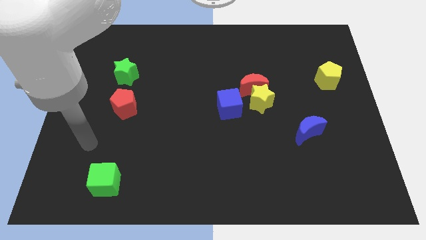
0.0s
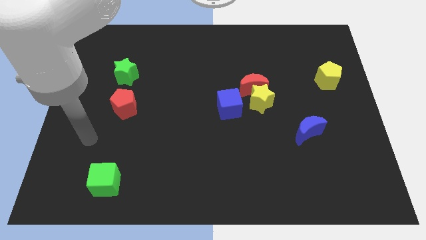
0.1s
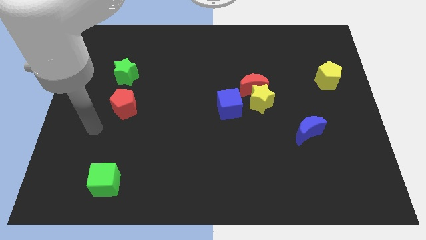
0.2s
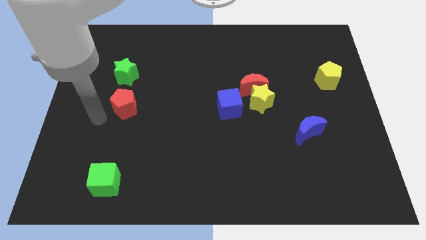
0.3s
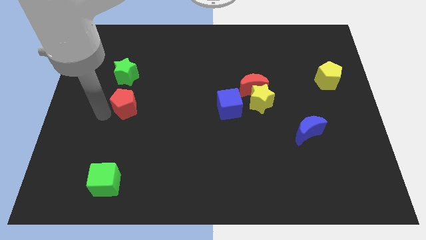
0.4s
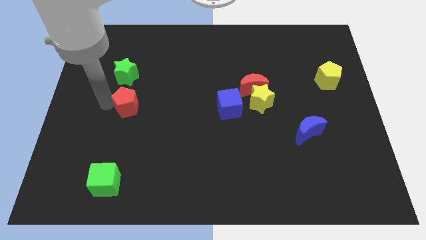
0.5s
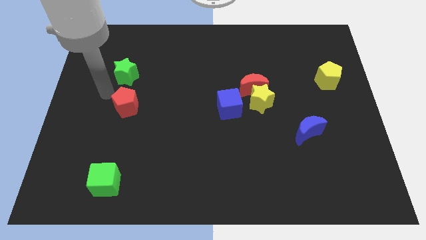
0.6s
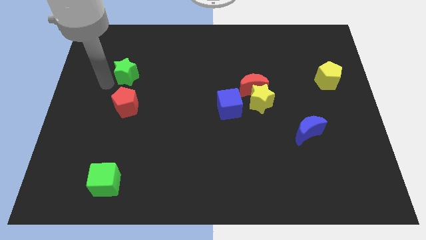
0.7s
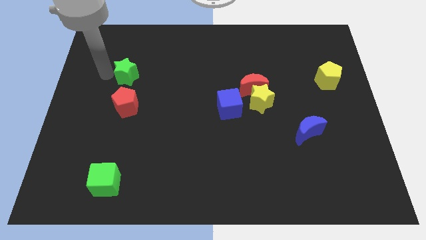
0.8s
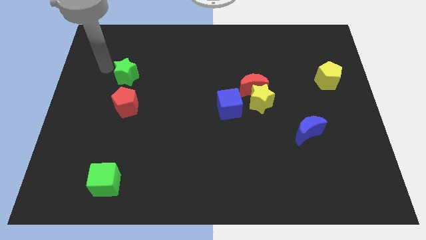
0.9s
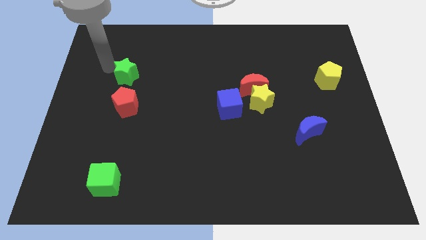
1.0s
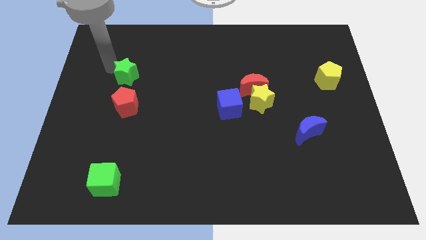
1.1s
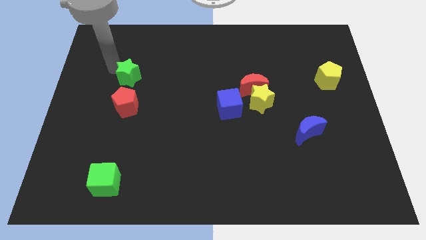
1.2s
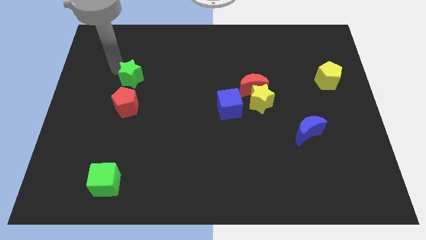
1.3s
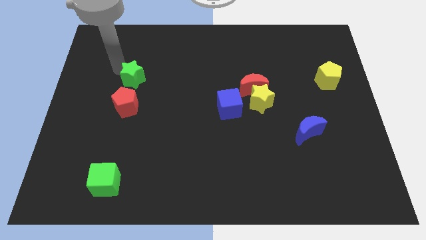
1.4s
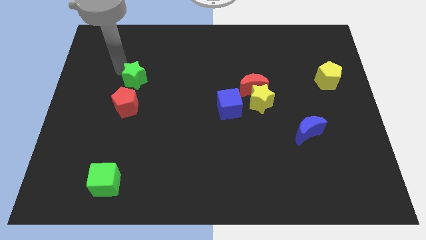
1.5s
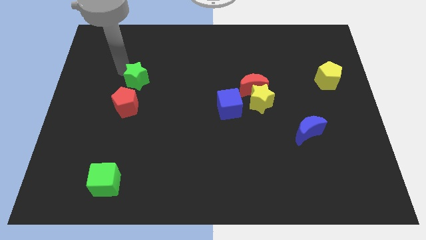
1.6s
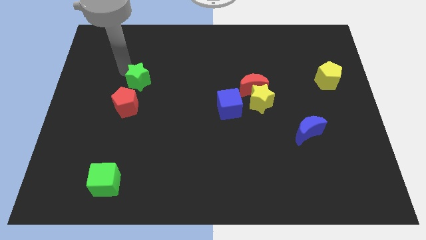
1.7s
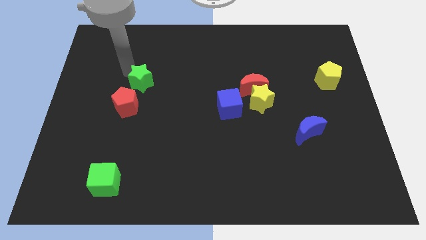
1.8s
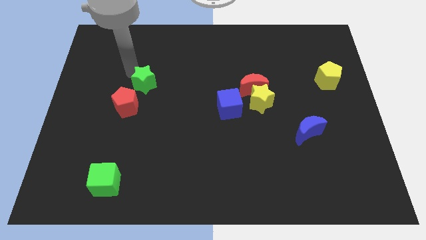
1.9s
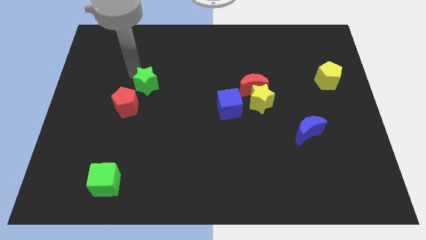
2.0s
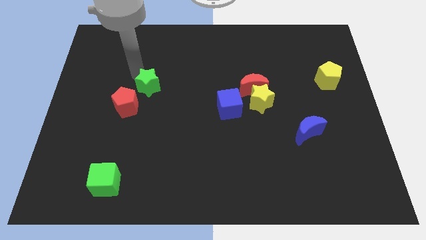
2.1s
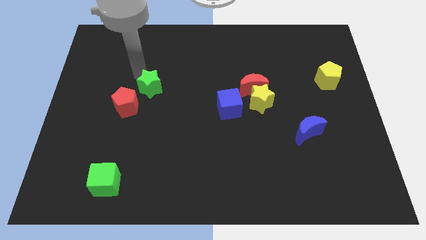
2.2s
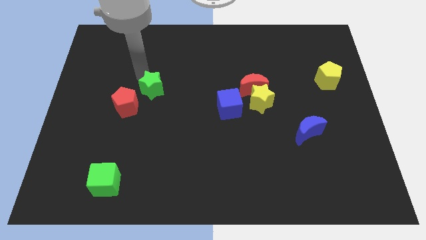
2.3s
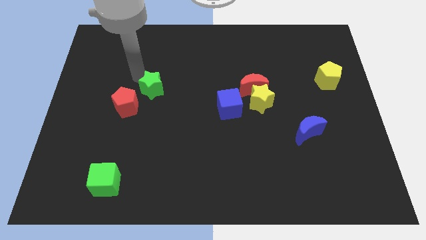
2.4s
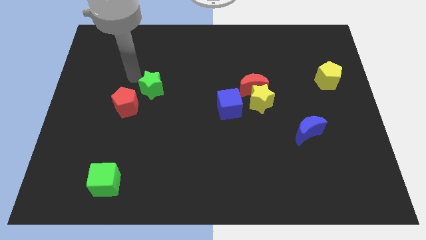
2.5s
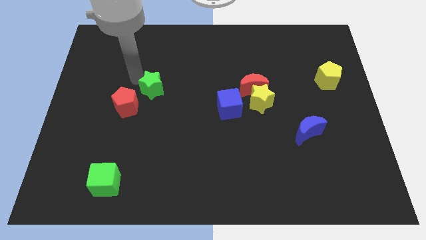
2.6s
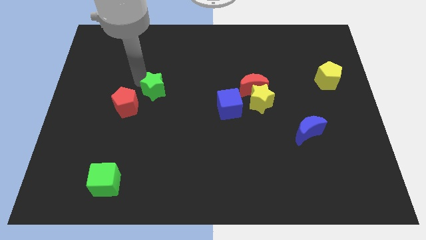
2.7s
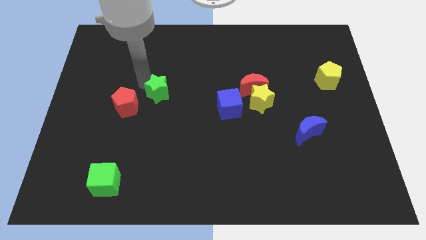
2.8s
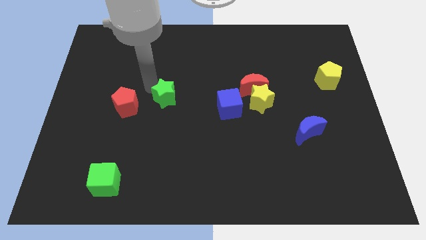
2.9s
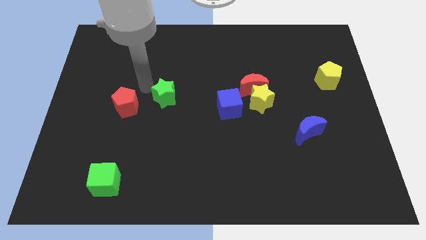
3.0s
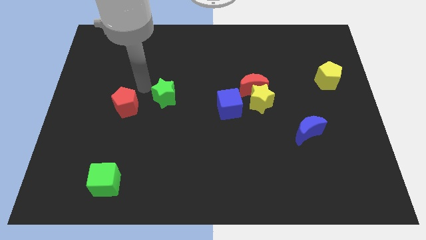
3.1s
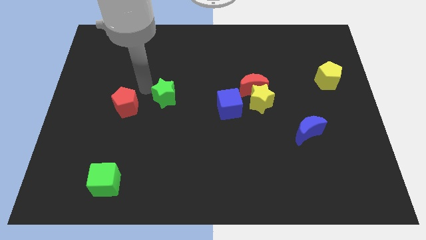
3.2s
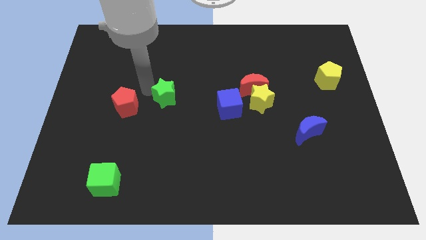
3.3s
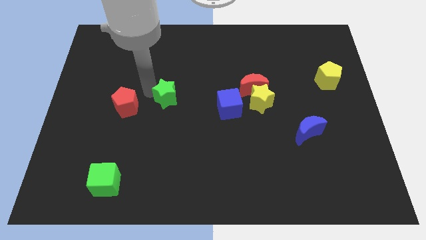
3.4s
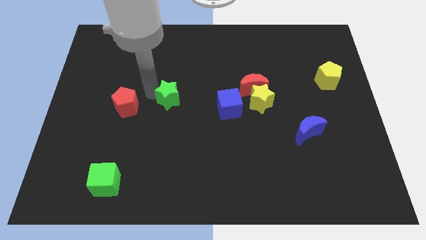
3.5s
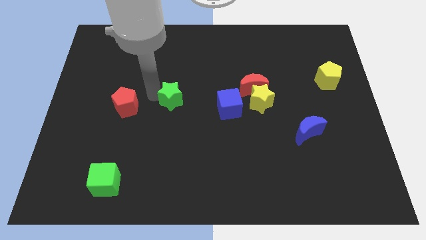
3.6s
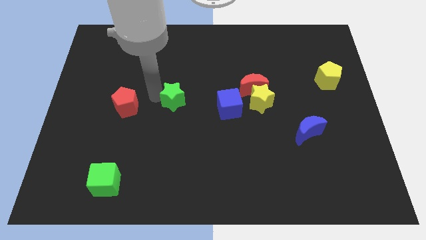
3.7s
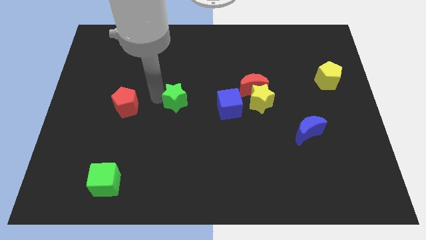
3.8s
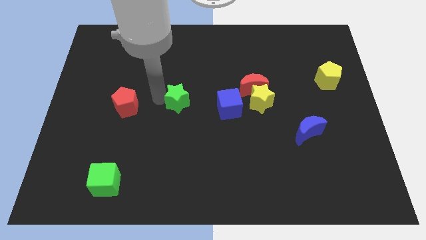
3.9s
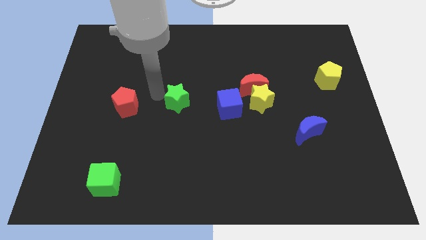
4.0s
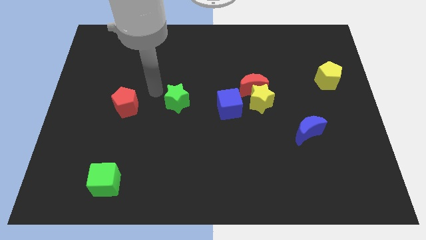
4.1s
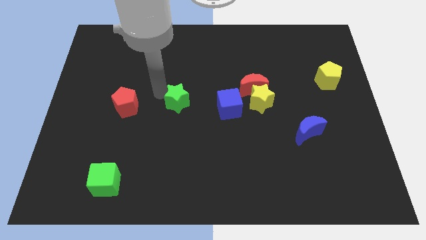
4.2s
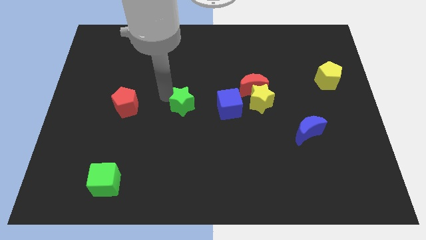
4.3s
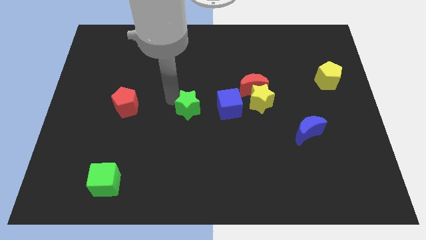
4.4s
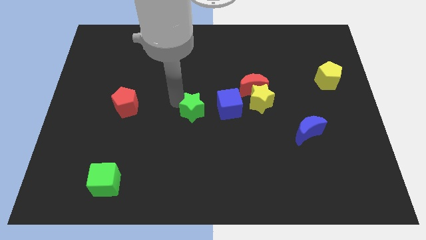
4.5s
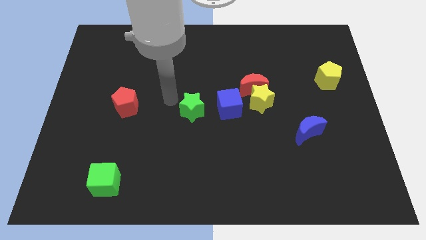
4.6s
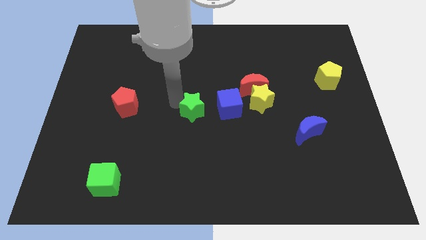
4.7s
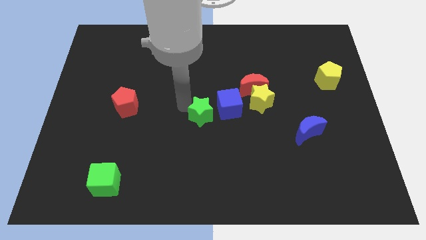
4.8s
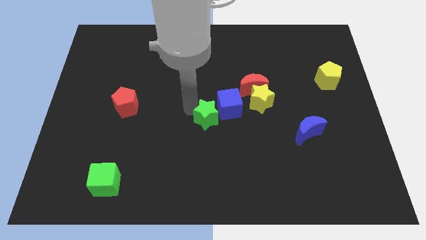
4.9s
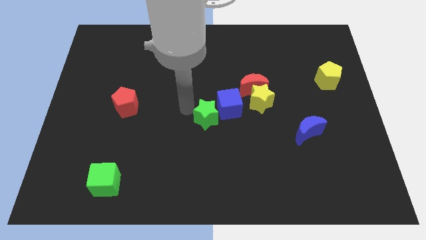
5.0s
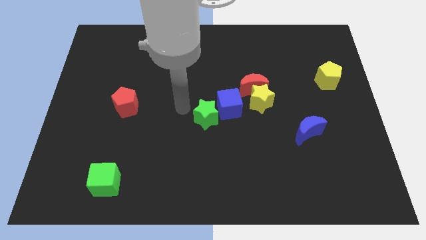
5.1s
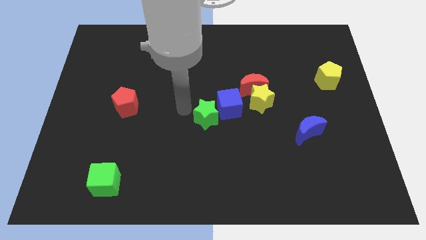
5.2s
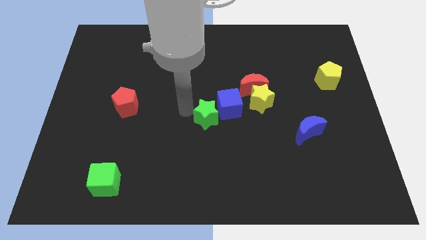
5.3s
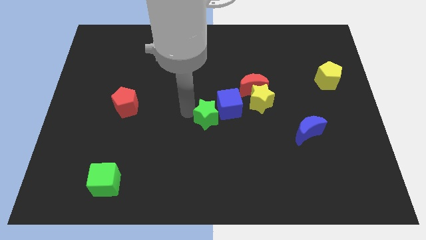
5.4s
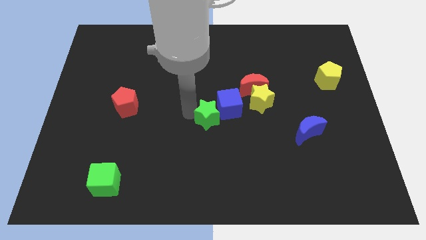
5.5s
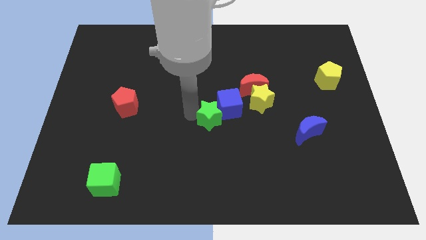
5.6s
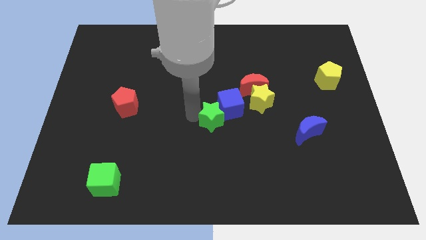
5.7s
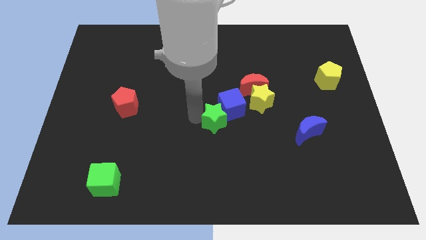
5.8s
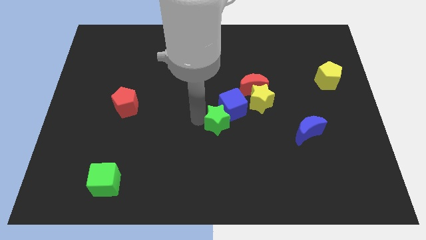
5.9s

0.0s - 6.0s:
put the green star to the bottom left side of the yellow star
